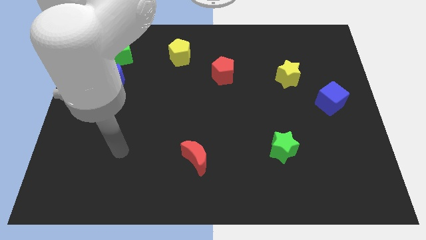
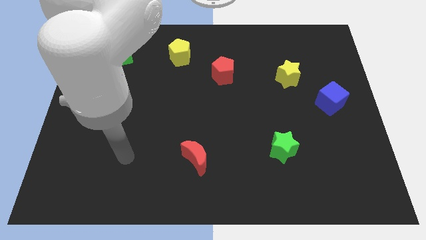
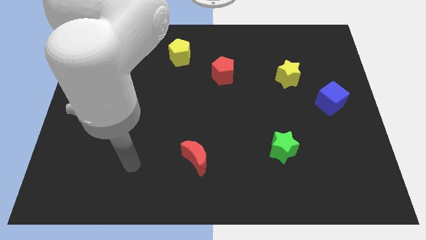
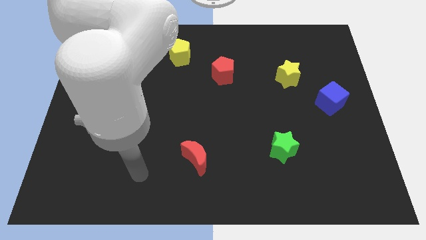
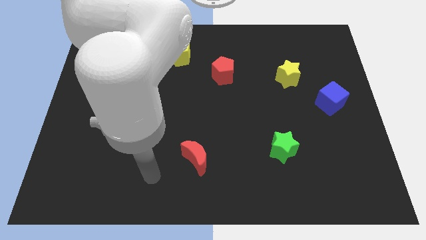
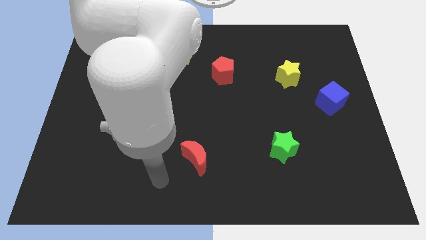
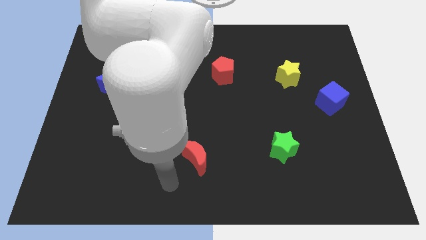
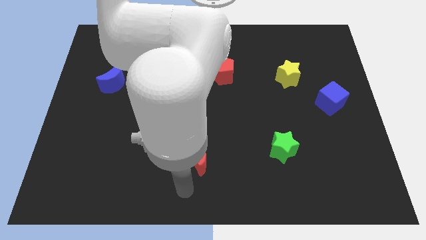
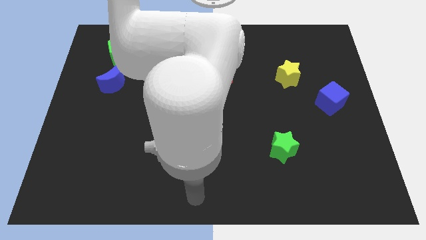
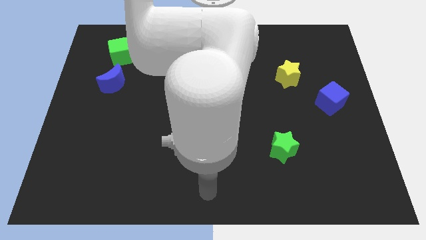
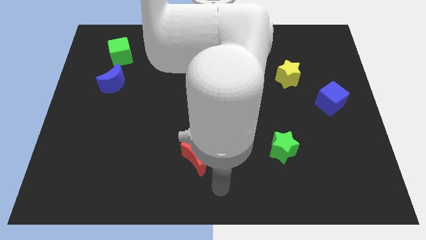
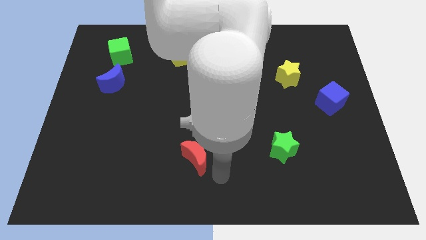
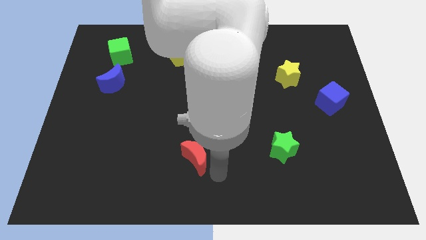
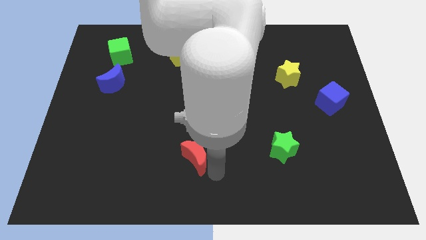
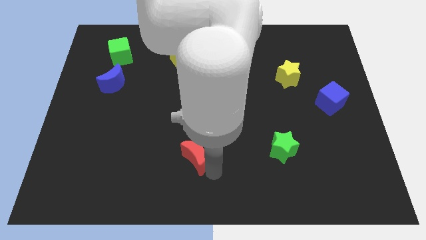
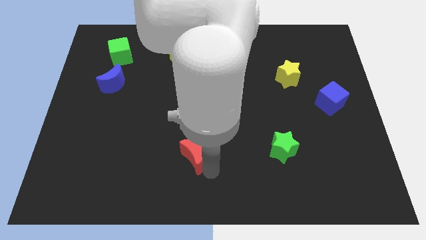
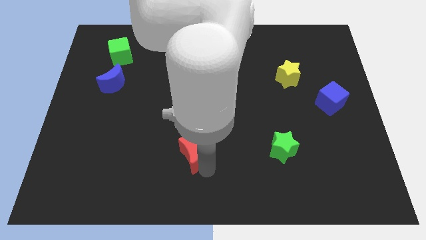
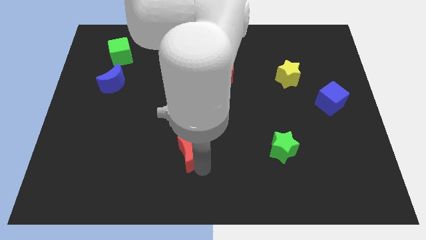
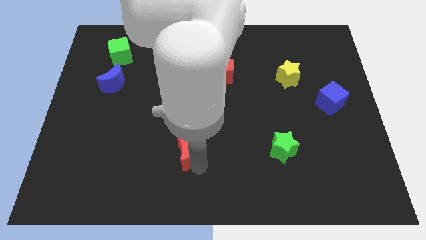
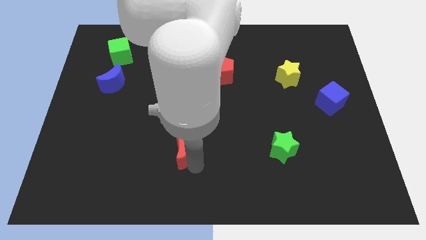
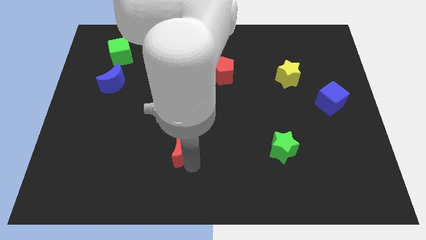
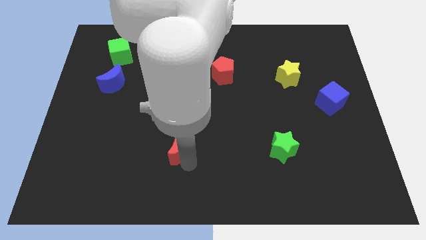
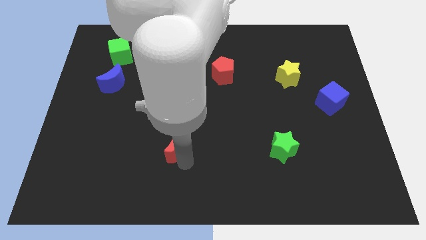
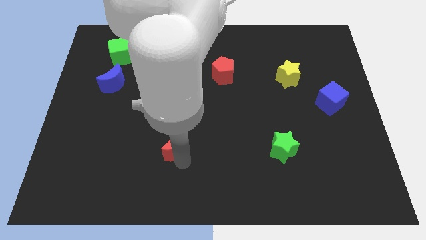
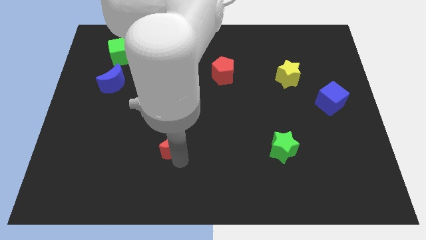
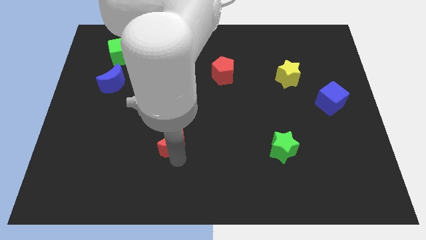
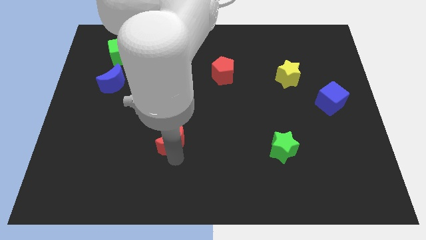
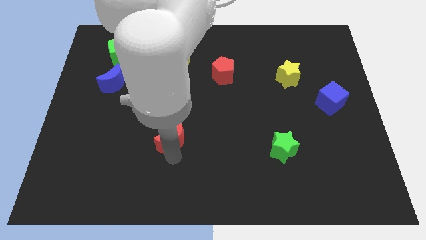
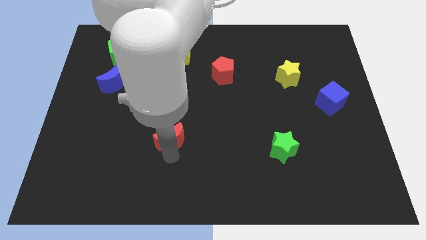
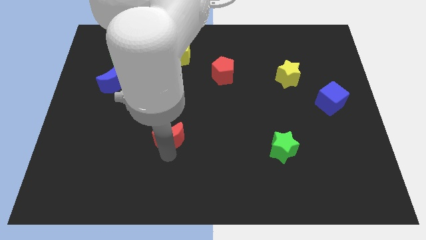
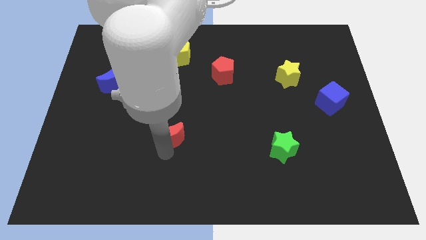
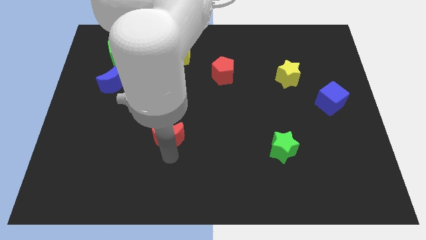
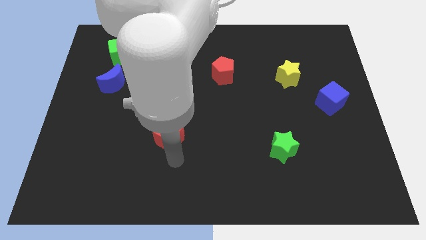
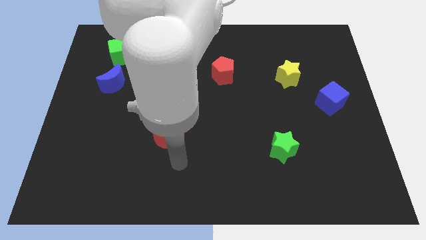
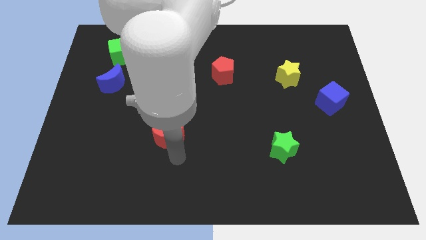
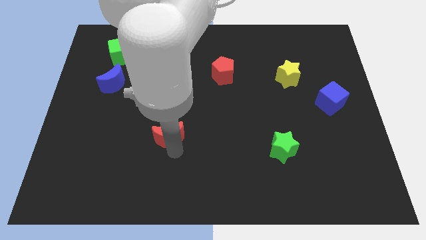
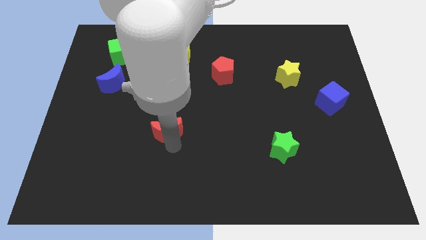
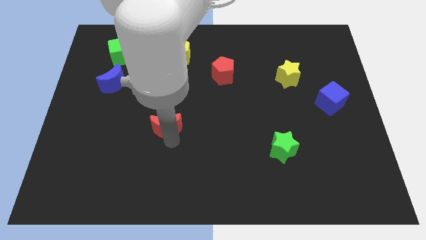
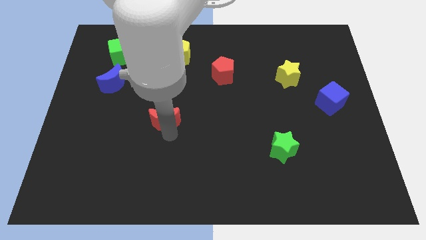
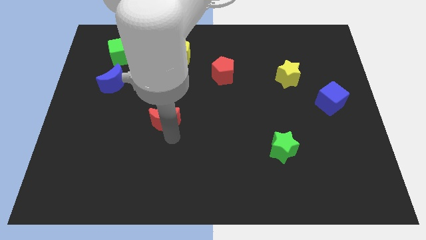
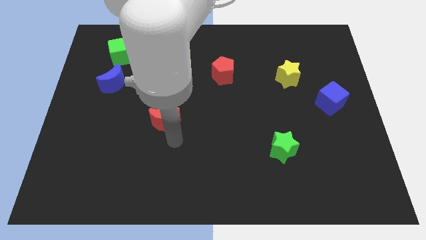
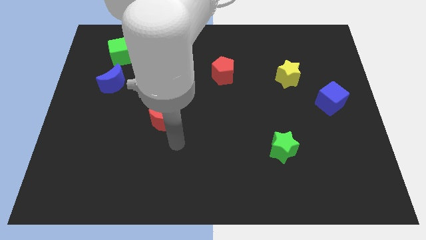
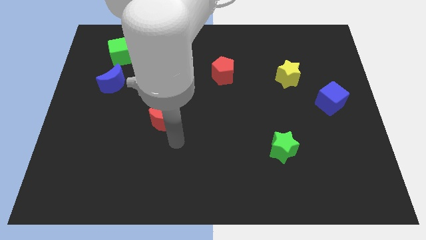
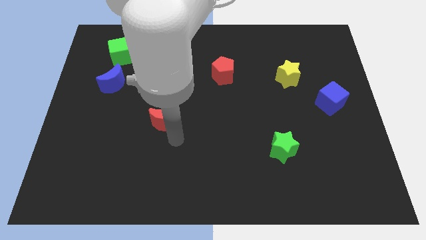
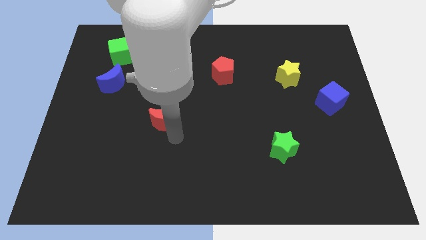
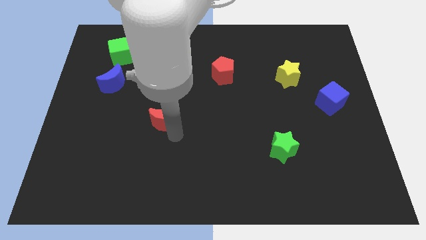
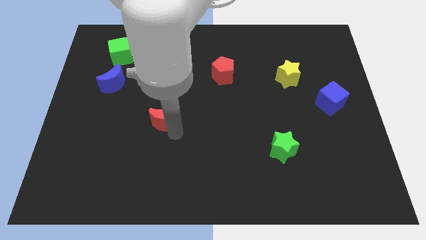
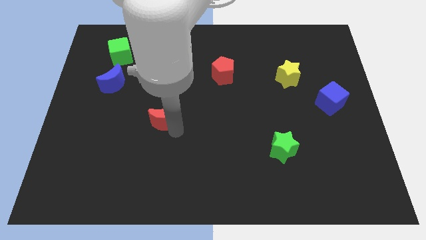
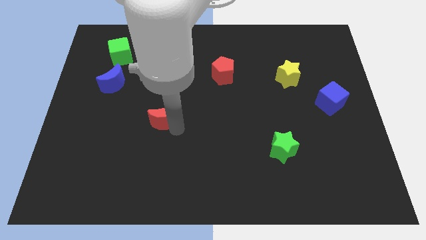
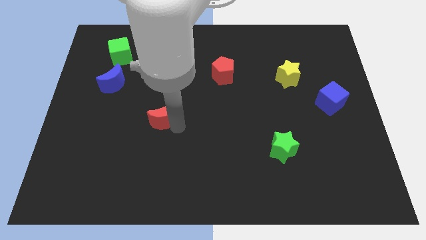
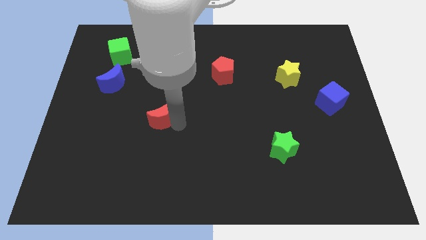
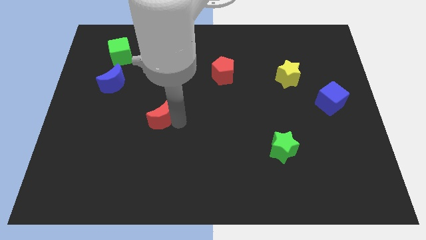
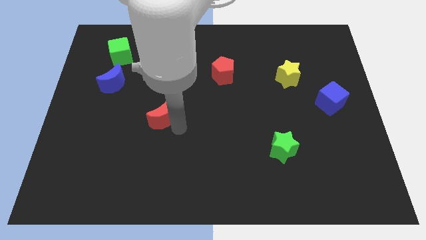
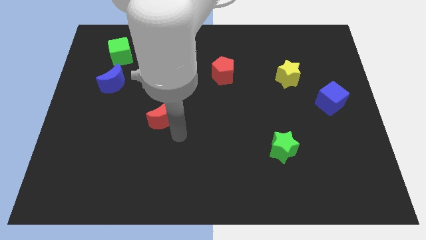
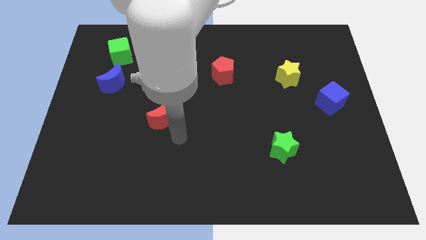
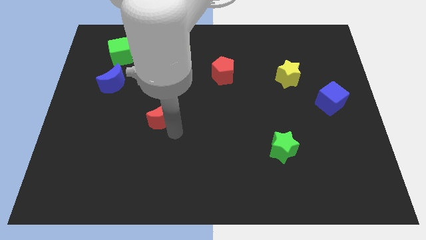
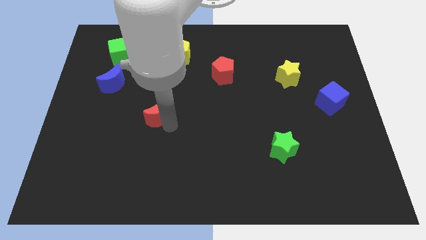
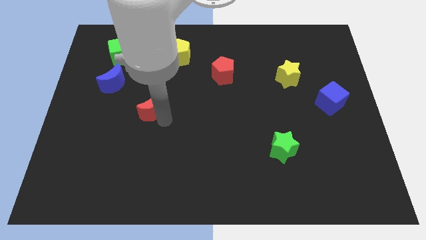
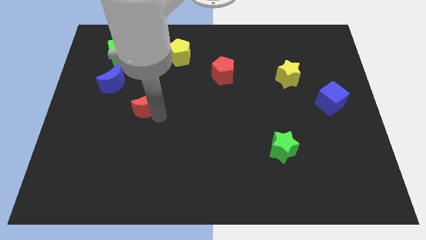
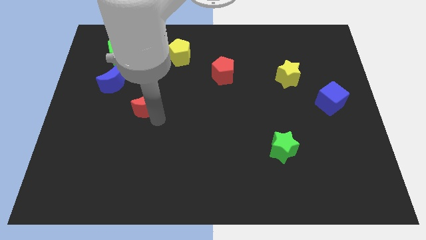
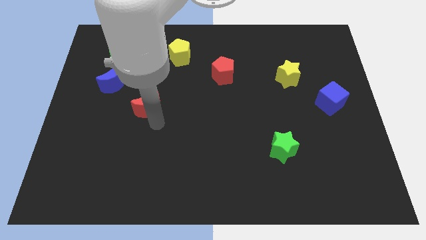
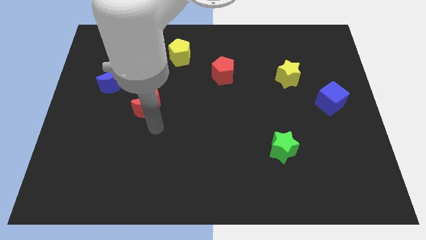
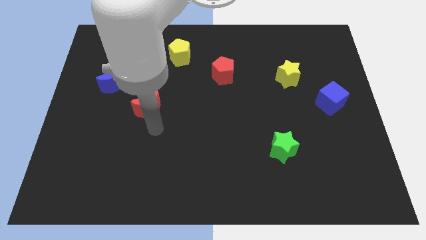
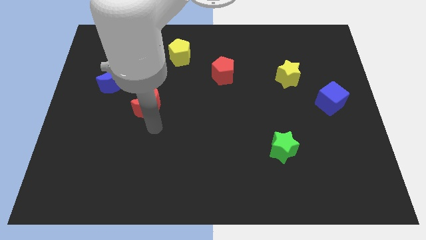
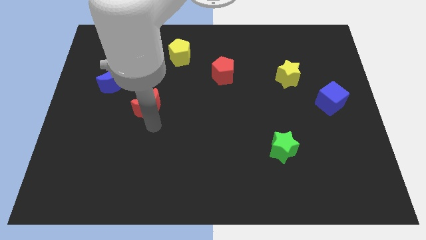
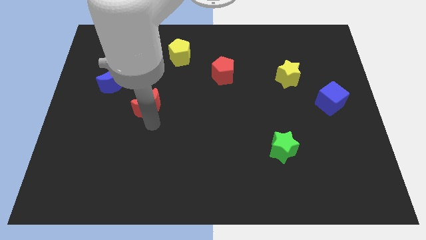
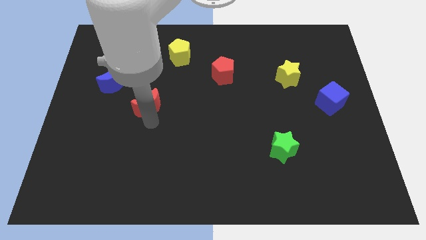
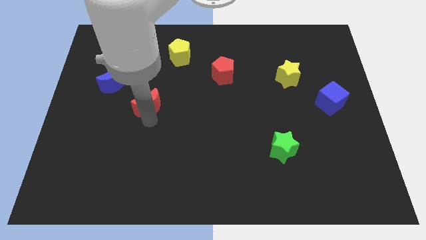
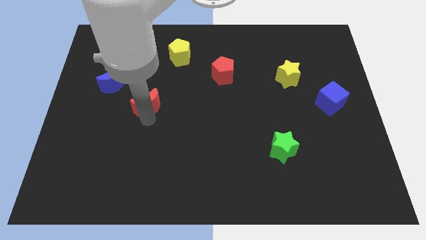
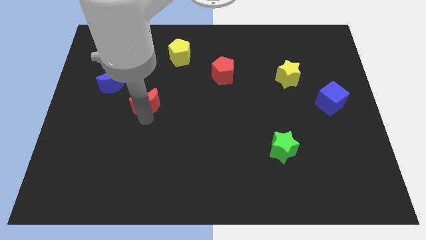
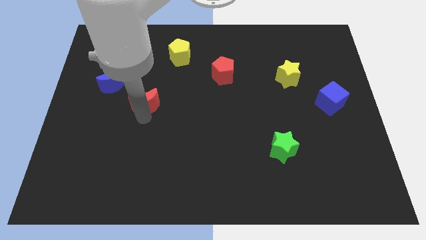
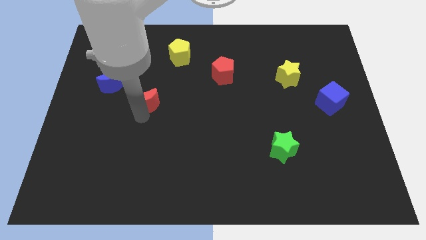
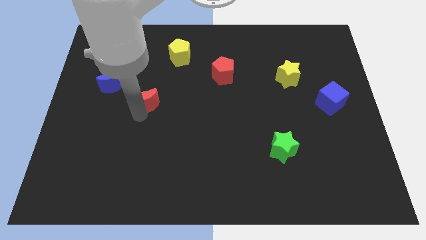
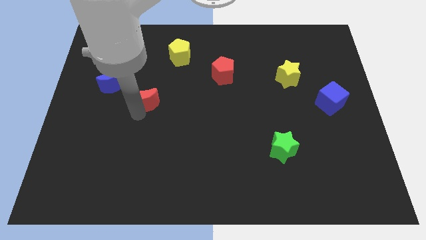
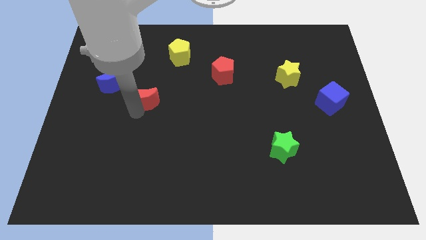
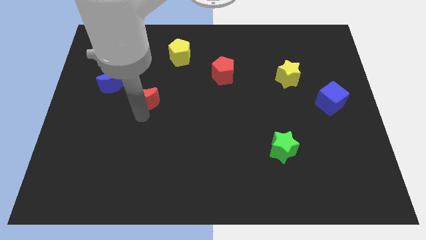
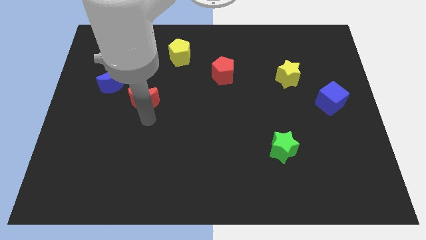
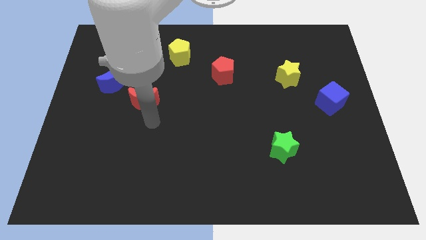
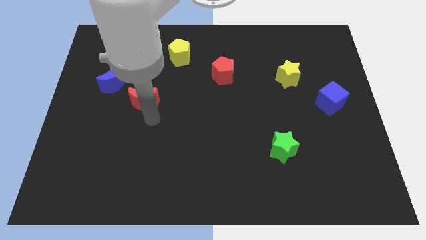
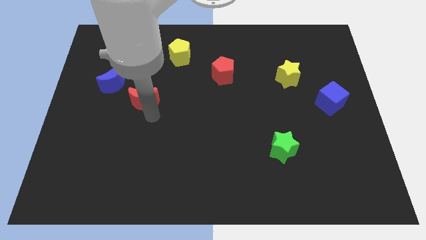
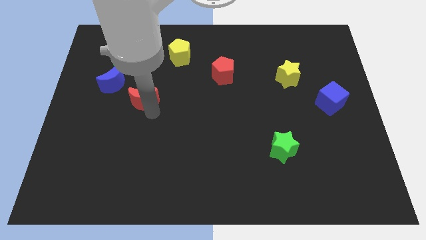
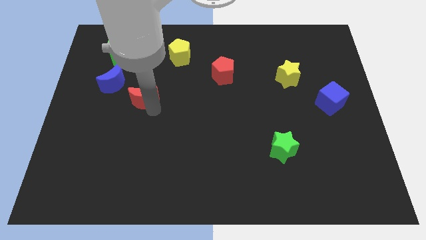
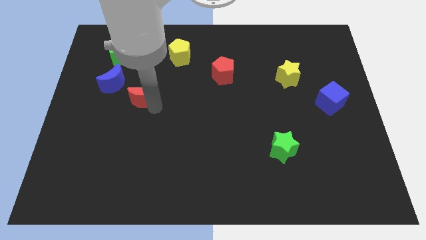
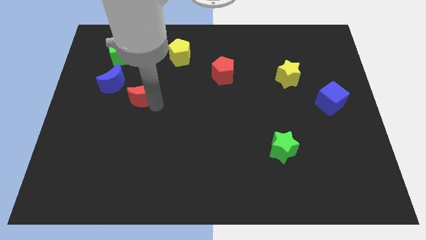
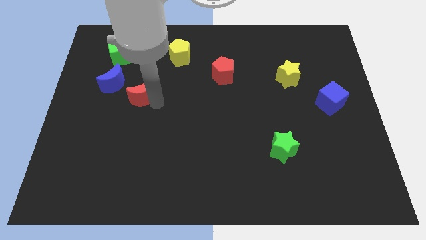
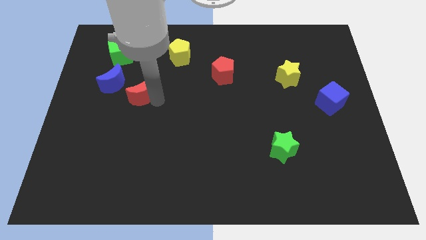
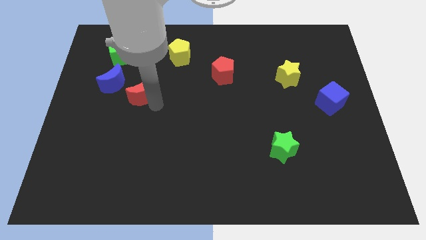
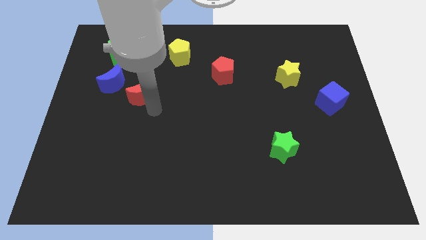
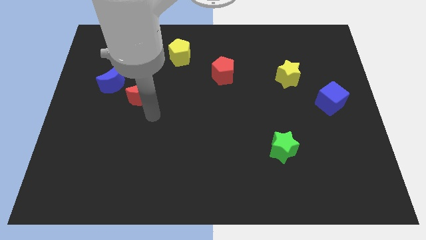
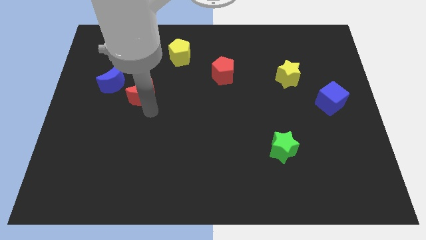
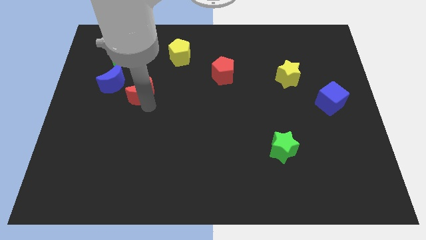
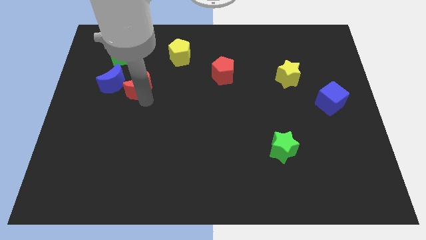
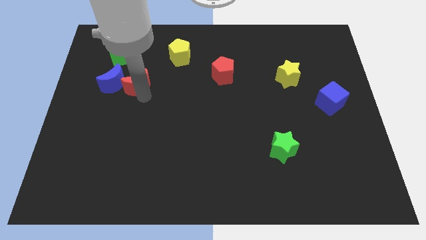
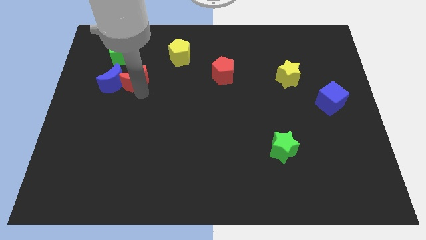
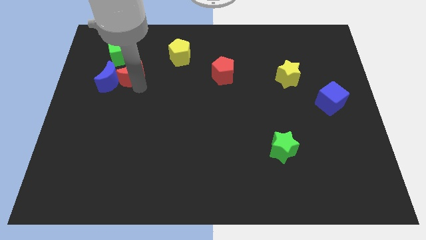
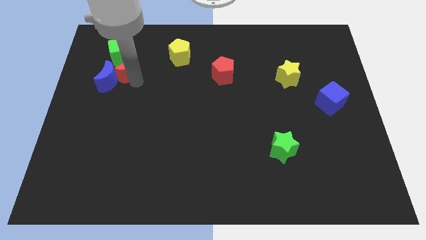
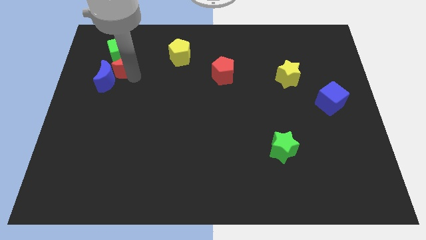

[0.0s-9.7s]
put the red moon to the green cube
